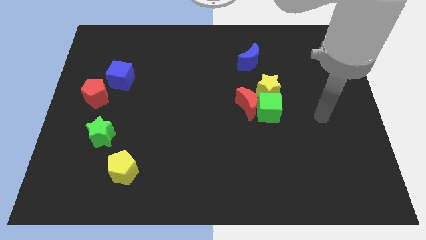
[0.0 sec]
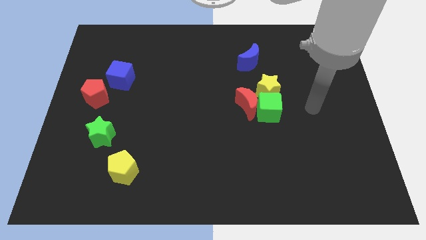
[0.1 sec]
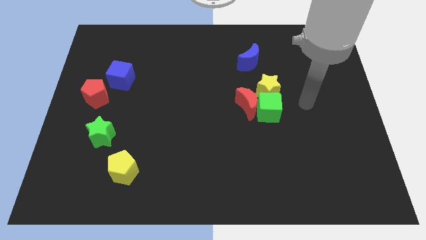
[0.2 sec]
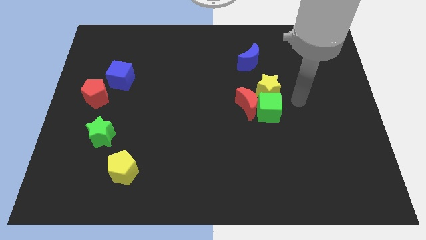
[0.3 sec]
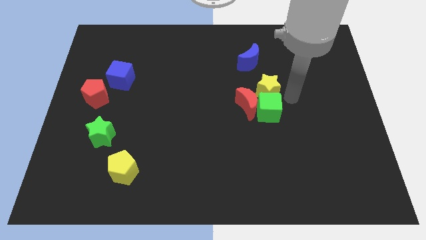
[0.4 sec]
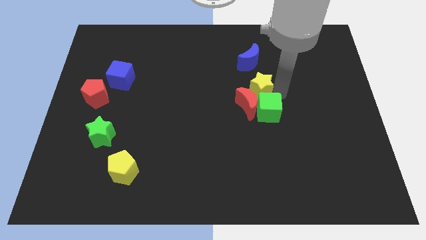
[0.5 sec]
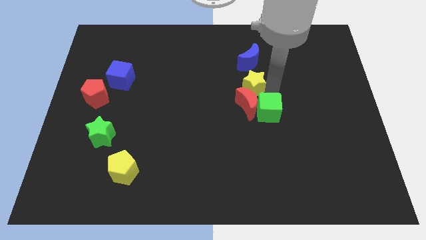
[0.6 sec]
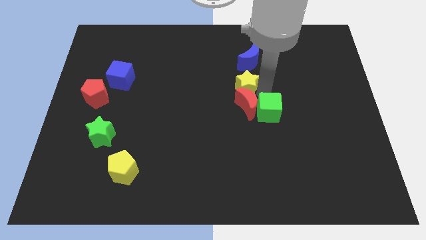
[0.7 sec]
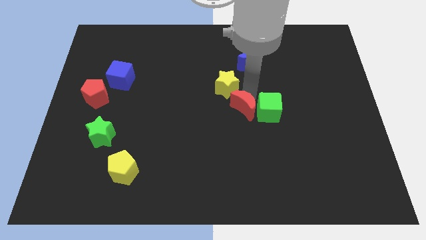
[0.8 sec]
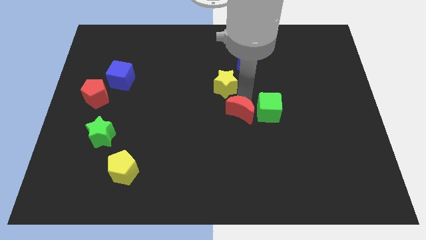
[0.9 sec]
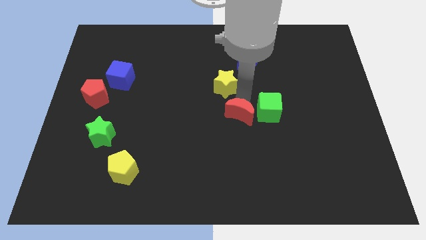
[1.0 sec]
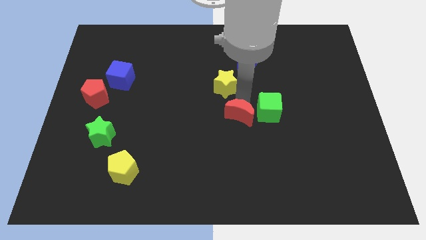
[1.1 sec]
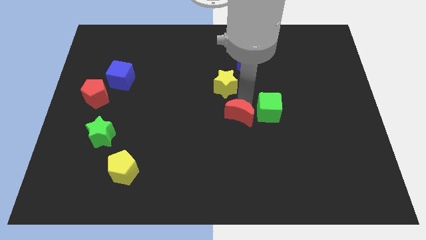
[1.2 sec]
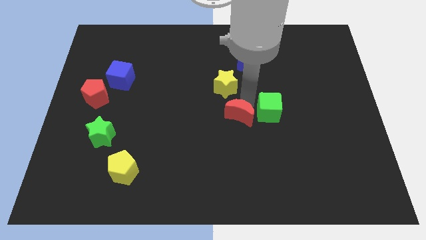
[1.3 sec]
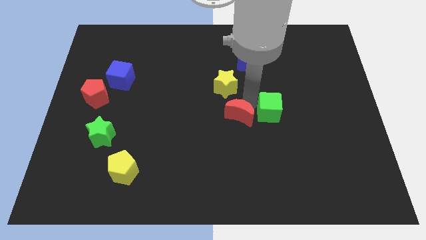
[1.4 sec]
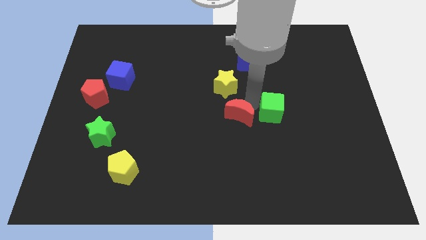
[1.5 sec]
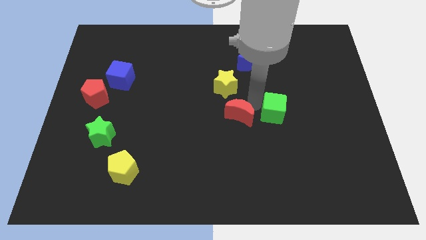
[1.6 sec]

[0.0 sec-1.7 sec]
pull the green cube apart from the red moon and yellow star

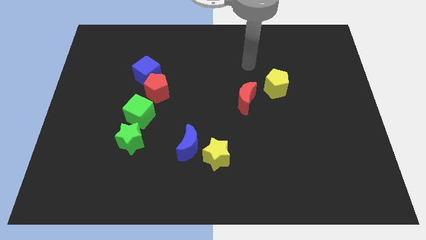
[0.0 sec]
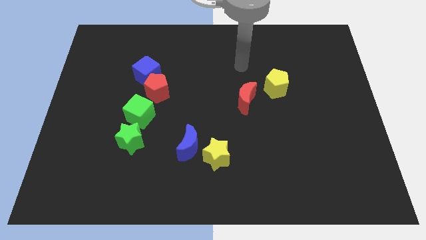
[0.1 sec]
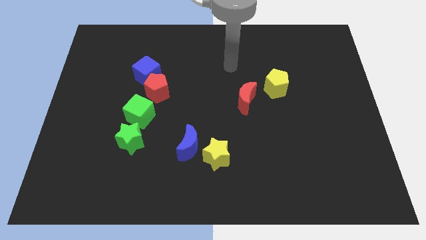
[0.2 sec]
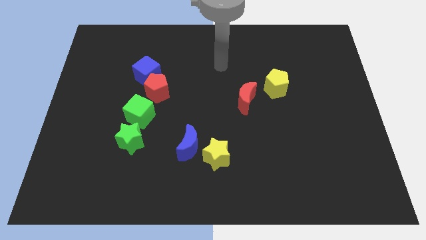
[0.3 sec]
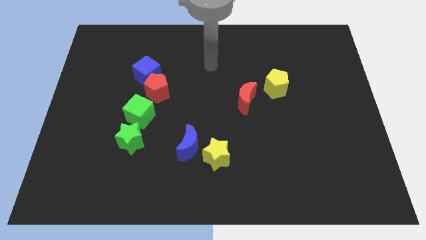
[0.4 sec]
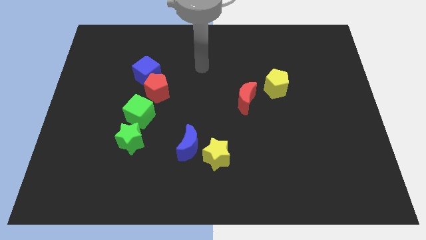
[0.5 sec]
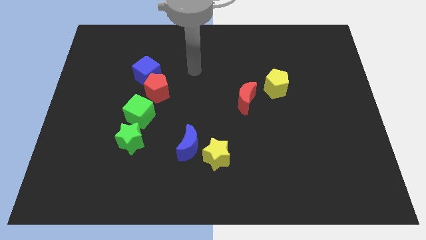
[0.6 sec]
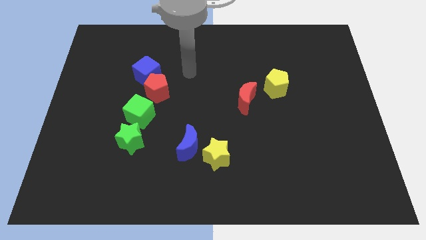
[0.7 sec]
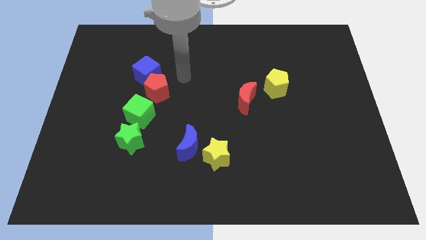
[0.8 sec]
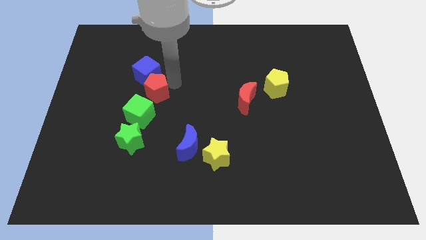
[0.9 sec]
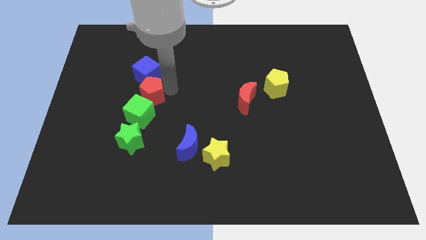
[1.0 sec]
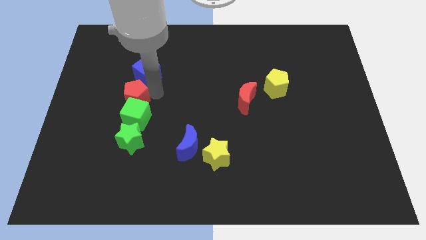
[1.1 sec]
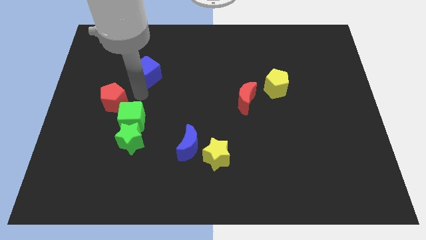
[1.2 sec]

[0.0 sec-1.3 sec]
move the blue cube away from the red pentagon

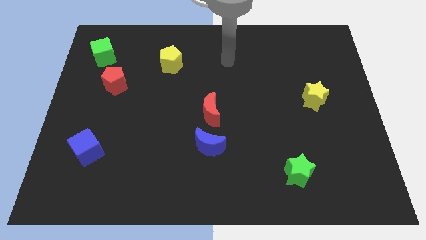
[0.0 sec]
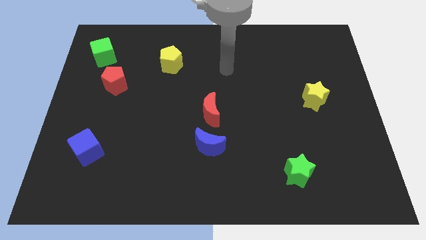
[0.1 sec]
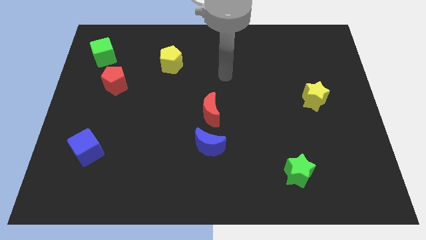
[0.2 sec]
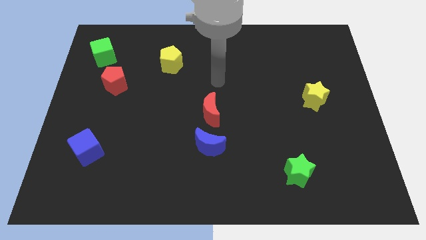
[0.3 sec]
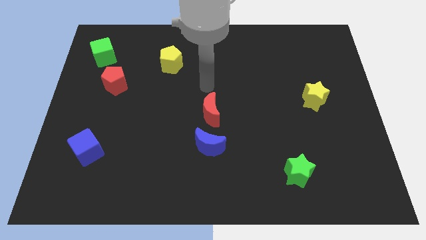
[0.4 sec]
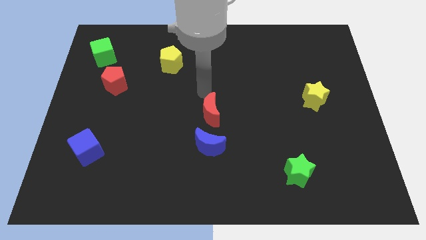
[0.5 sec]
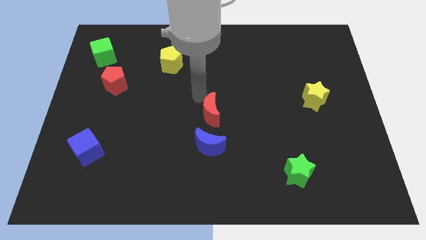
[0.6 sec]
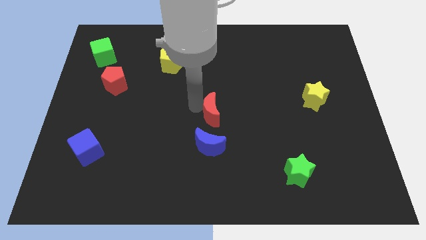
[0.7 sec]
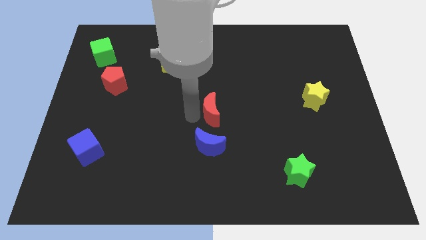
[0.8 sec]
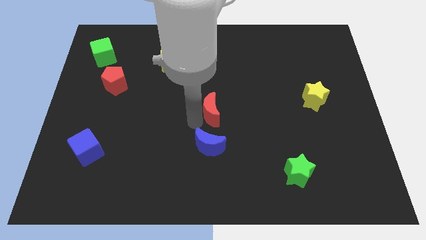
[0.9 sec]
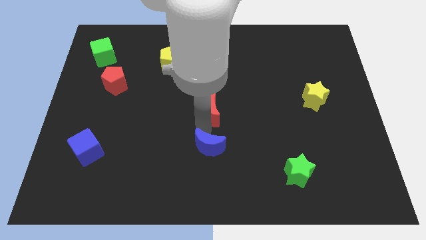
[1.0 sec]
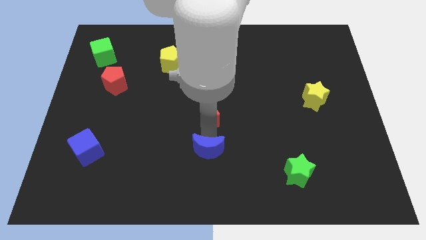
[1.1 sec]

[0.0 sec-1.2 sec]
separate the red moon from the blue moon

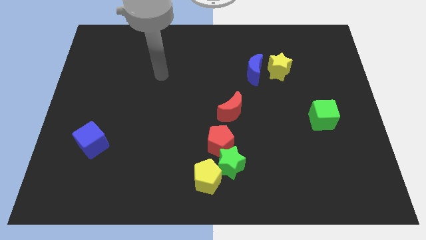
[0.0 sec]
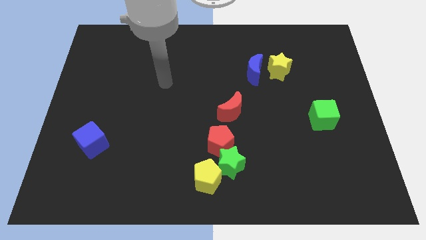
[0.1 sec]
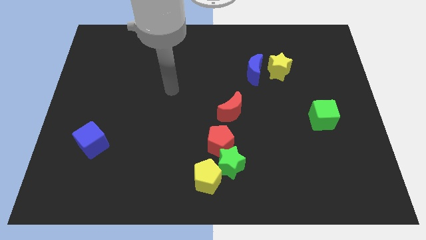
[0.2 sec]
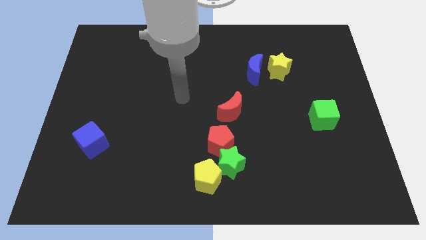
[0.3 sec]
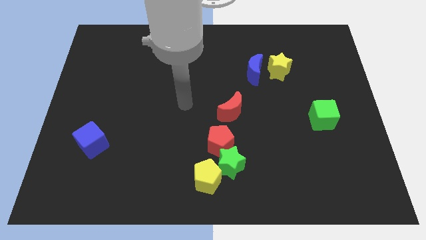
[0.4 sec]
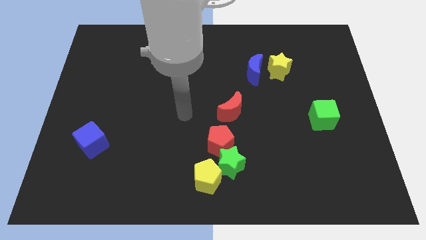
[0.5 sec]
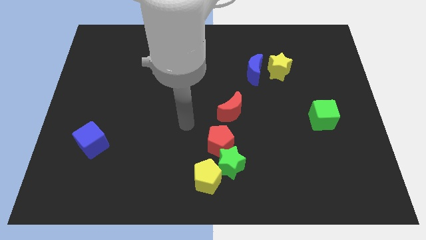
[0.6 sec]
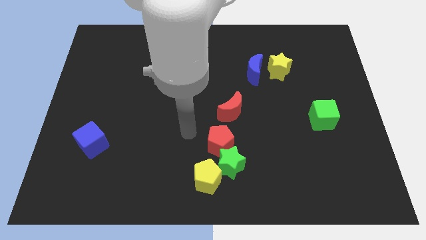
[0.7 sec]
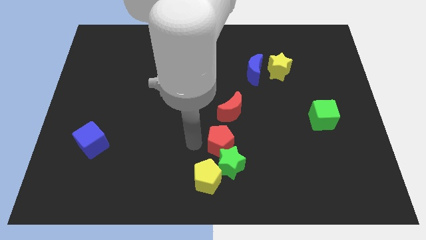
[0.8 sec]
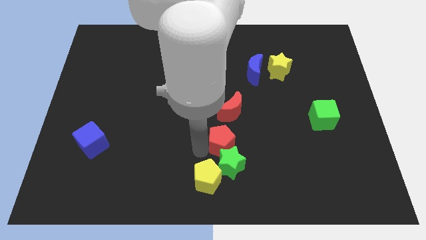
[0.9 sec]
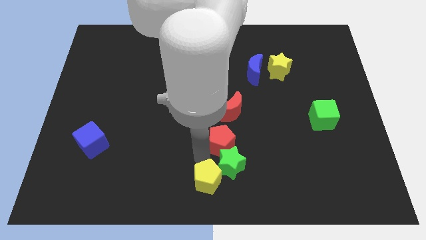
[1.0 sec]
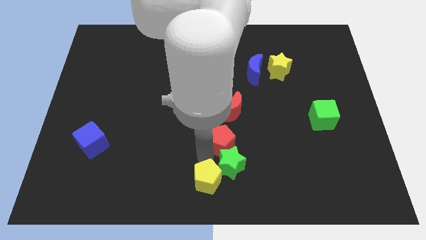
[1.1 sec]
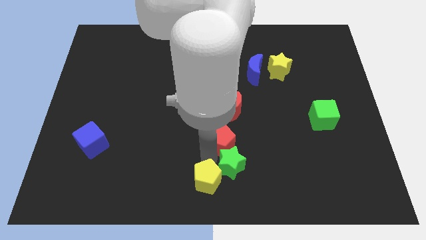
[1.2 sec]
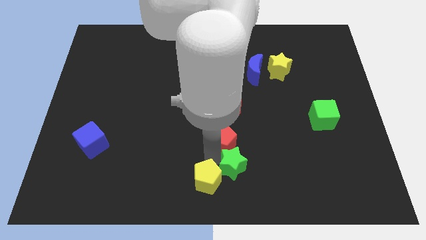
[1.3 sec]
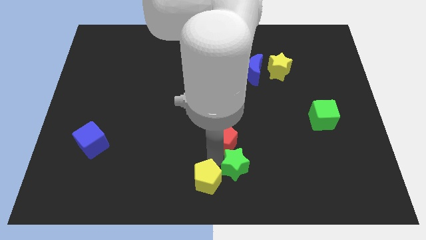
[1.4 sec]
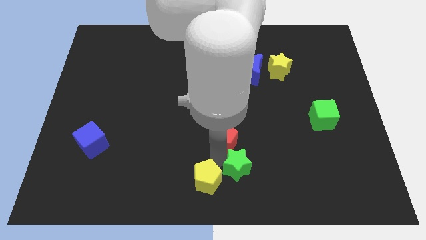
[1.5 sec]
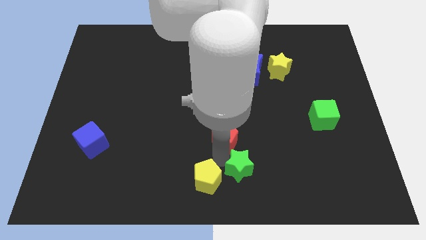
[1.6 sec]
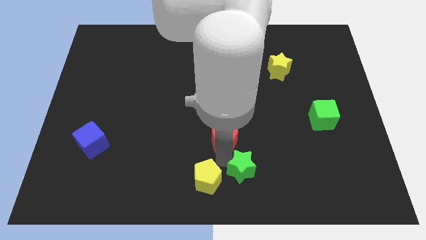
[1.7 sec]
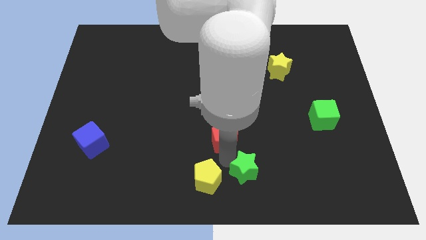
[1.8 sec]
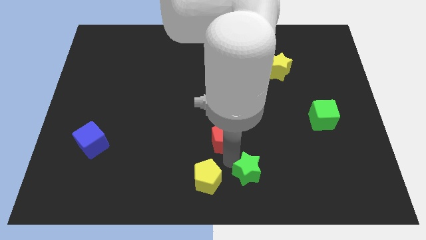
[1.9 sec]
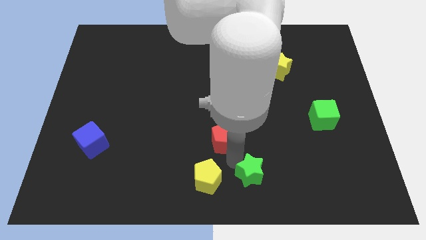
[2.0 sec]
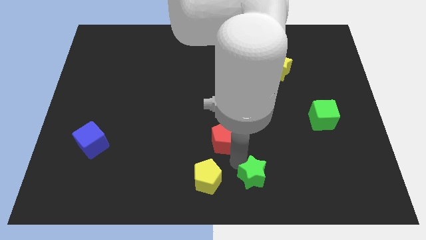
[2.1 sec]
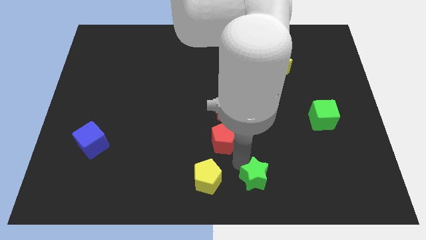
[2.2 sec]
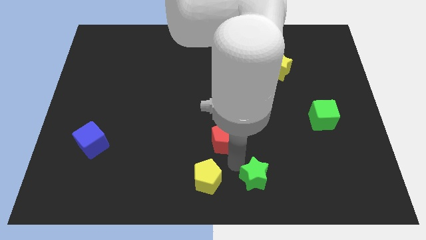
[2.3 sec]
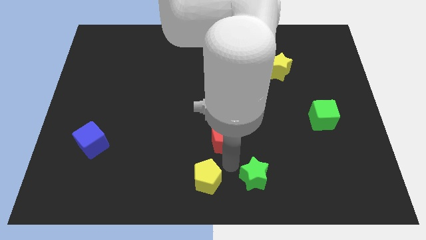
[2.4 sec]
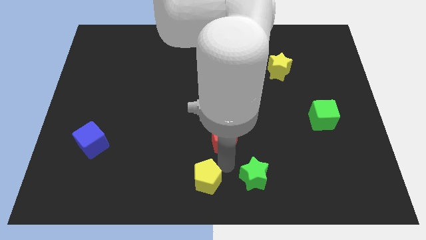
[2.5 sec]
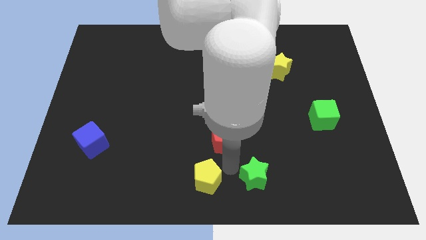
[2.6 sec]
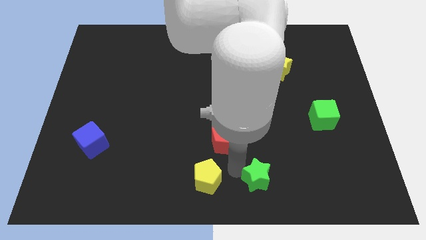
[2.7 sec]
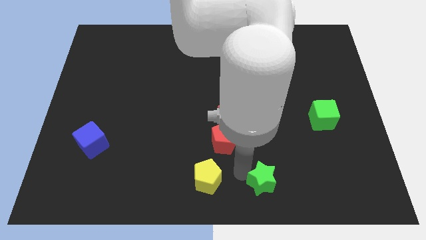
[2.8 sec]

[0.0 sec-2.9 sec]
move the green star away from the red pentagon and yellow pentagon

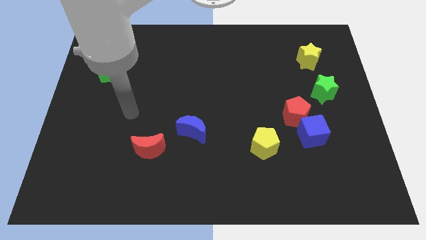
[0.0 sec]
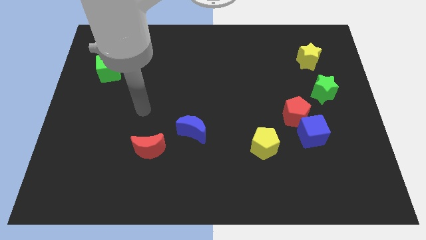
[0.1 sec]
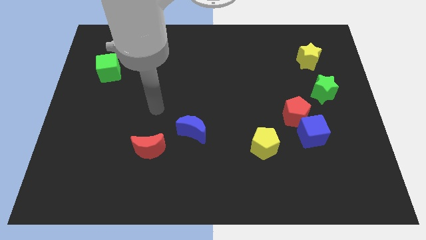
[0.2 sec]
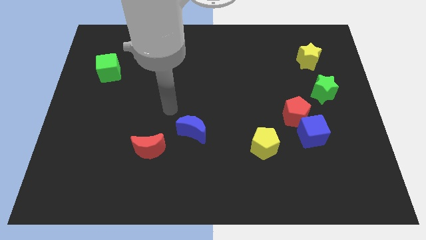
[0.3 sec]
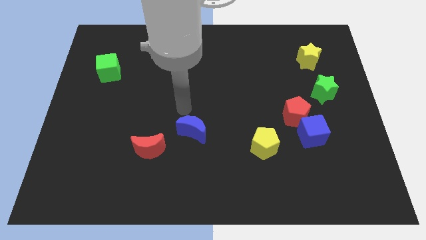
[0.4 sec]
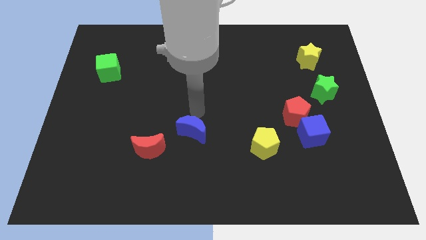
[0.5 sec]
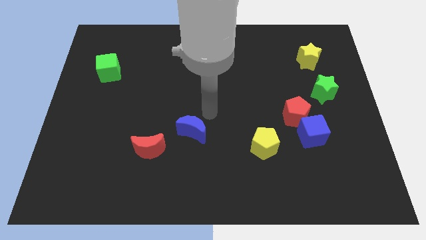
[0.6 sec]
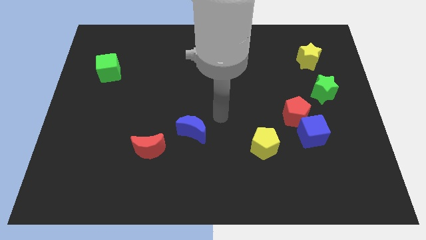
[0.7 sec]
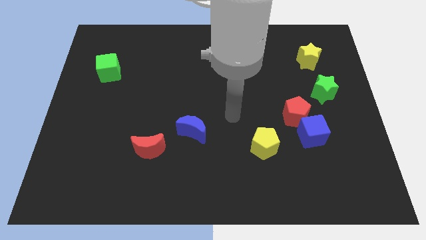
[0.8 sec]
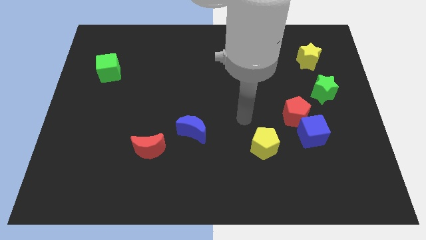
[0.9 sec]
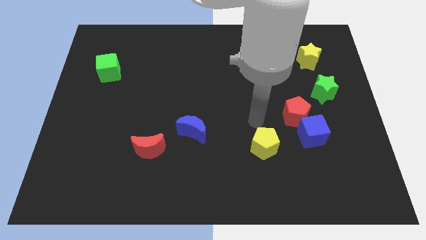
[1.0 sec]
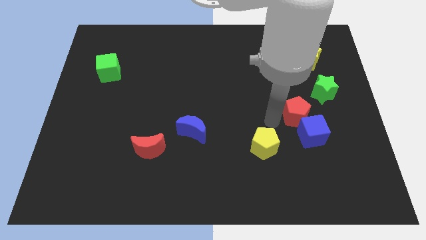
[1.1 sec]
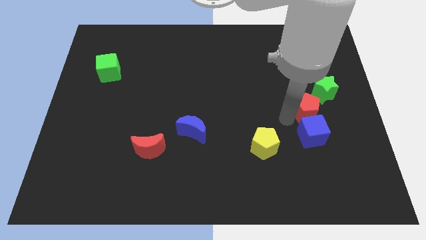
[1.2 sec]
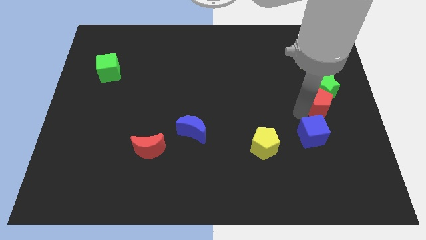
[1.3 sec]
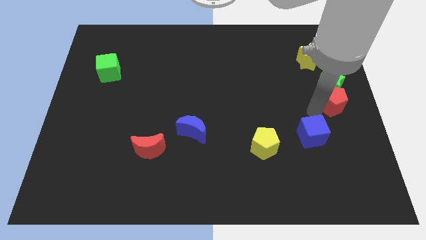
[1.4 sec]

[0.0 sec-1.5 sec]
pull the blue cube apart from the red pentagon

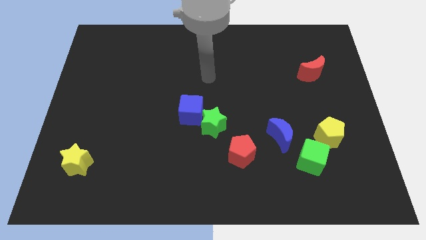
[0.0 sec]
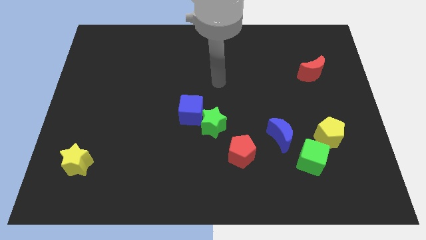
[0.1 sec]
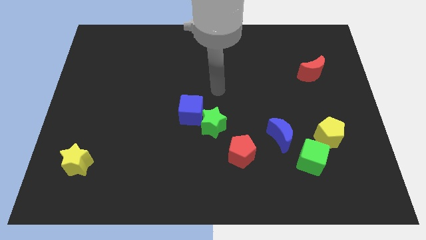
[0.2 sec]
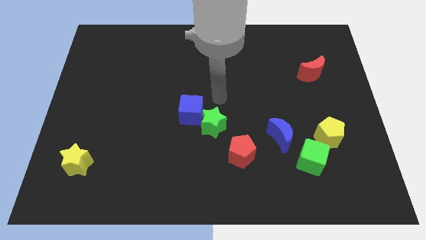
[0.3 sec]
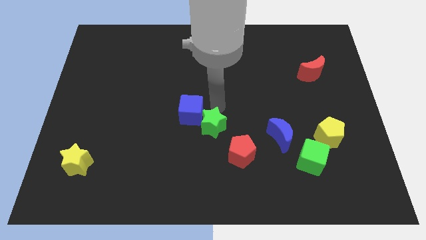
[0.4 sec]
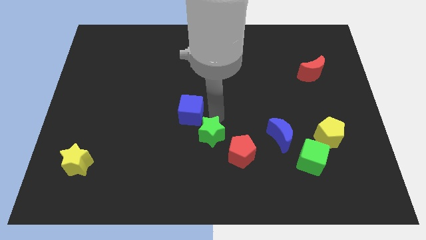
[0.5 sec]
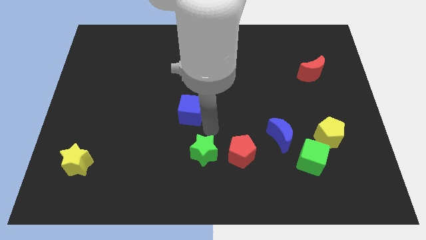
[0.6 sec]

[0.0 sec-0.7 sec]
pull the blue cube apart from the green star

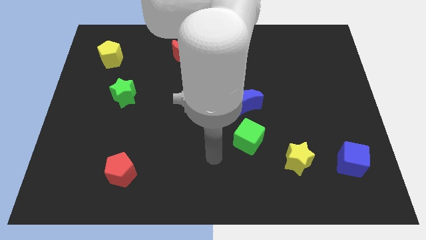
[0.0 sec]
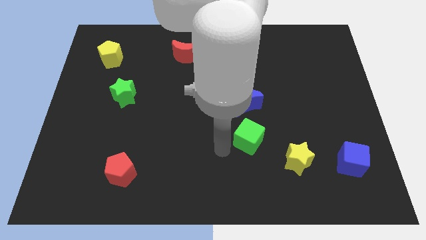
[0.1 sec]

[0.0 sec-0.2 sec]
move the blue moon away from the green cube
